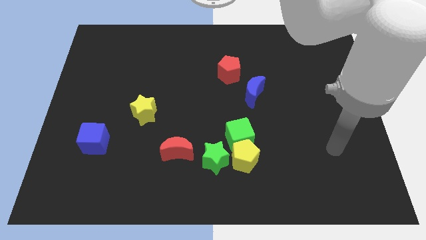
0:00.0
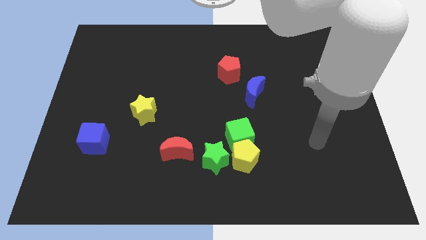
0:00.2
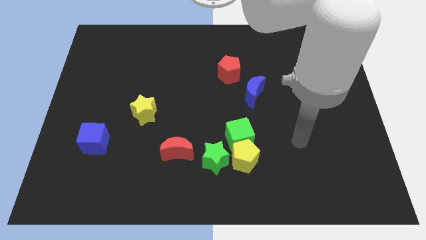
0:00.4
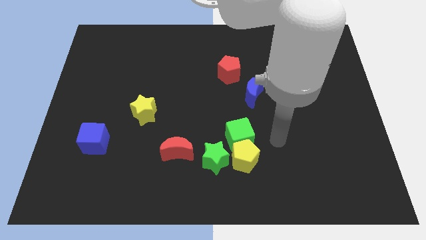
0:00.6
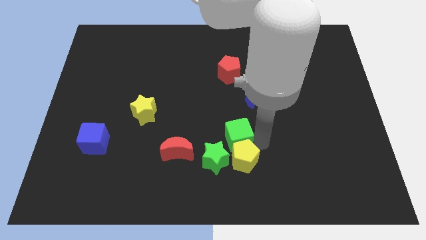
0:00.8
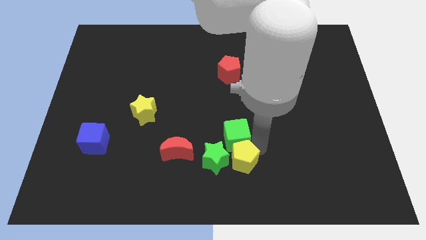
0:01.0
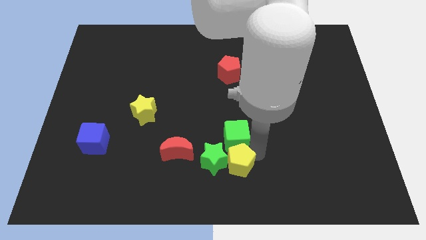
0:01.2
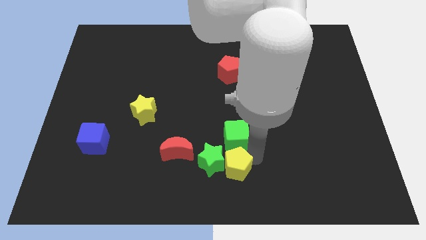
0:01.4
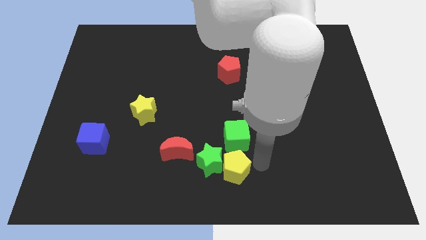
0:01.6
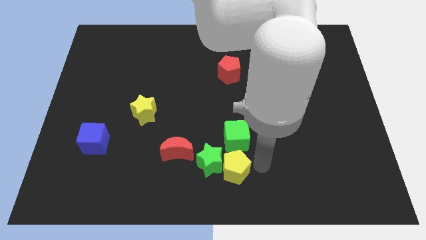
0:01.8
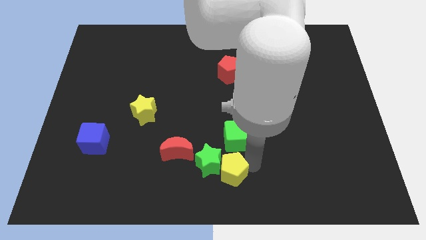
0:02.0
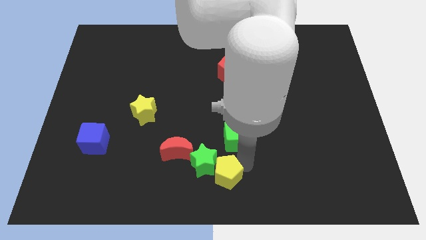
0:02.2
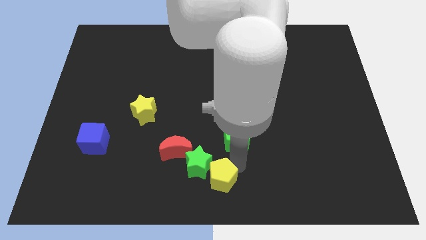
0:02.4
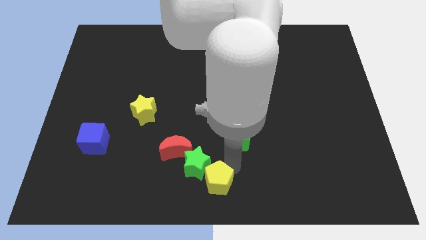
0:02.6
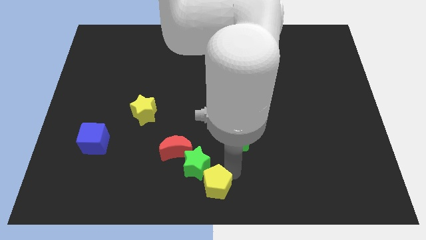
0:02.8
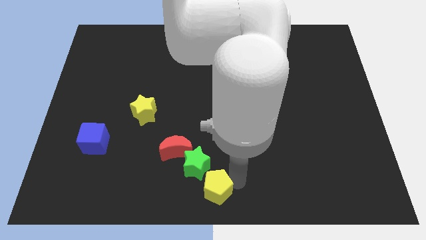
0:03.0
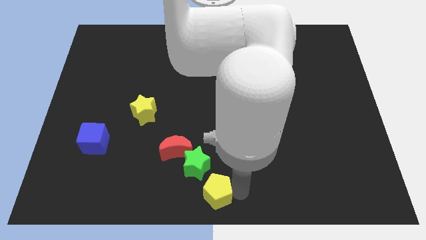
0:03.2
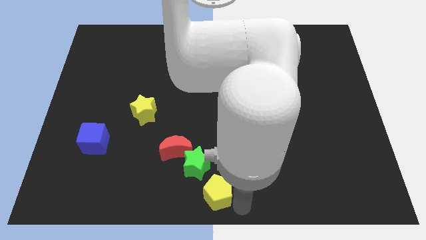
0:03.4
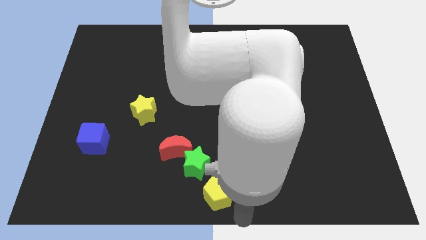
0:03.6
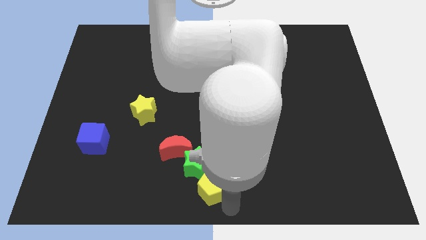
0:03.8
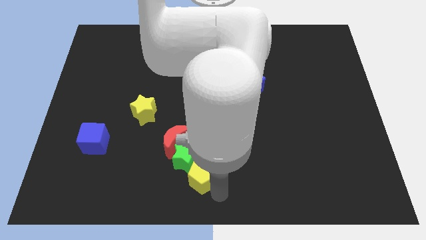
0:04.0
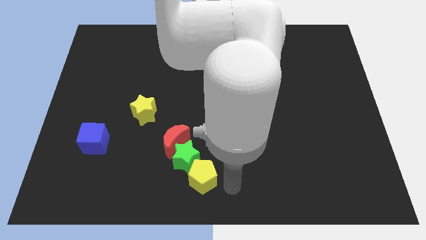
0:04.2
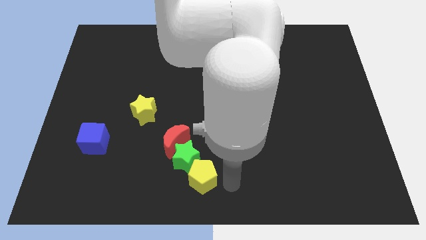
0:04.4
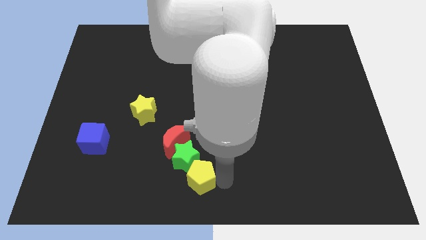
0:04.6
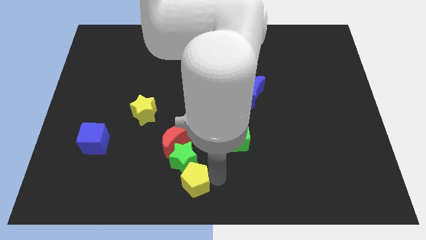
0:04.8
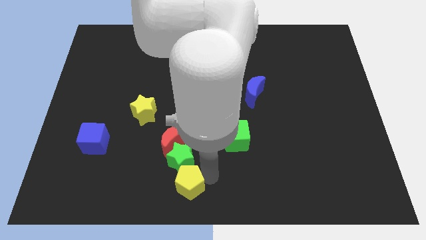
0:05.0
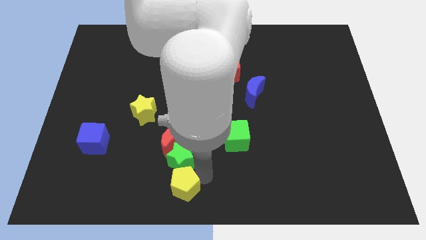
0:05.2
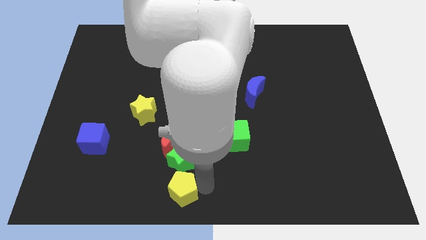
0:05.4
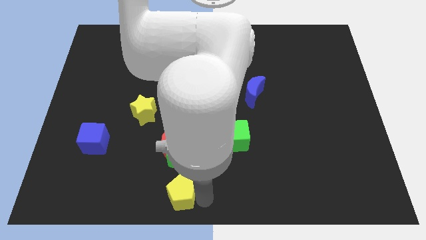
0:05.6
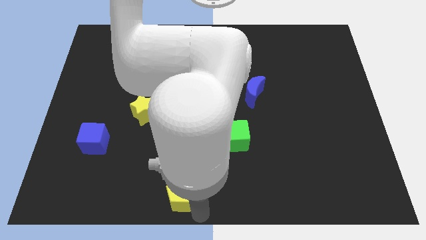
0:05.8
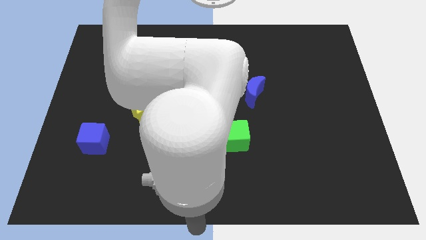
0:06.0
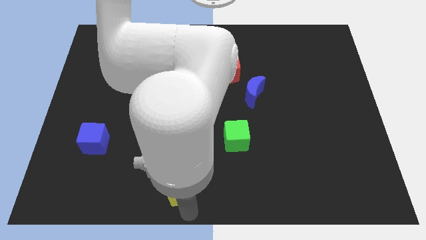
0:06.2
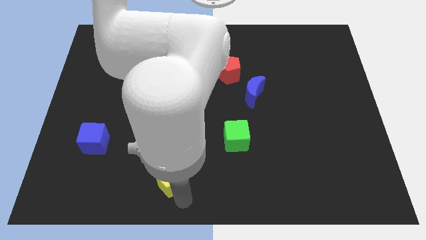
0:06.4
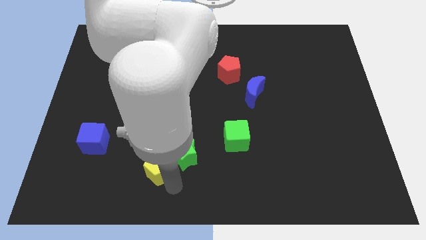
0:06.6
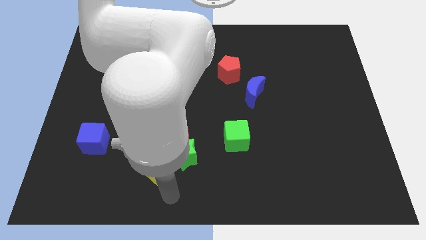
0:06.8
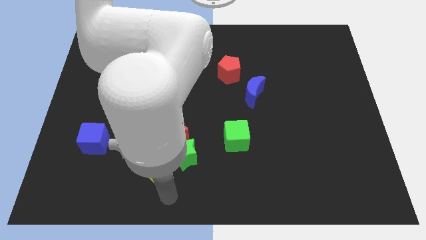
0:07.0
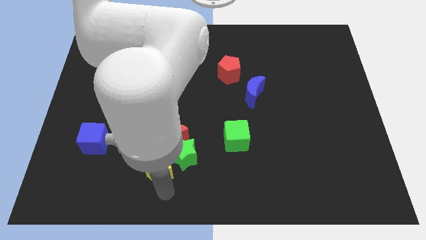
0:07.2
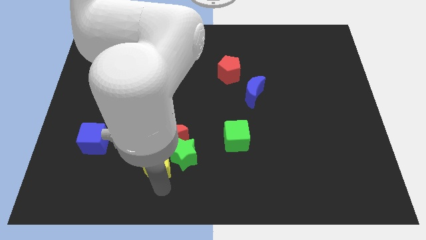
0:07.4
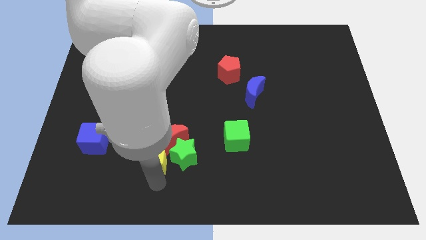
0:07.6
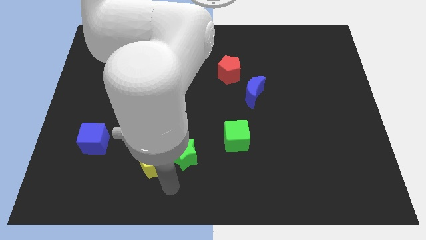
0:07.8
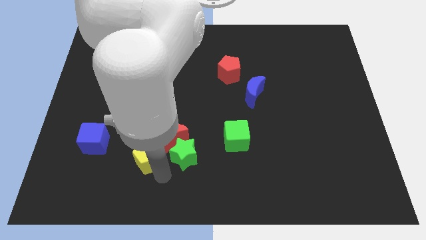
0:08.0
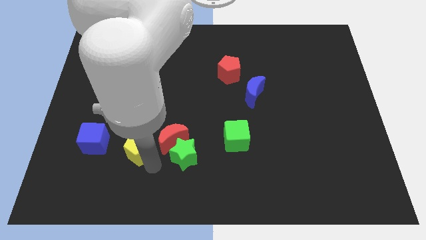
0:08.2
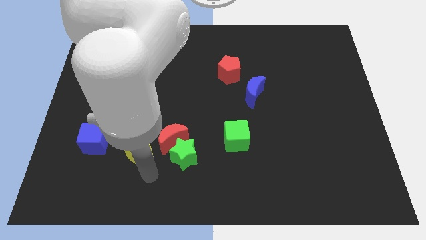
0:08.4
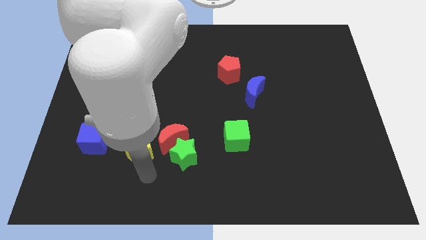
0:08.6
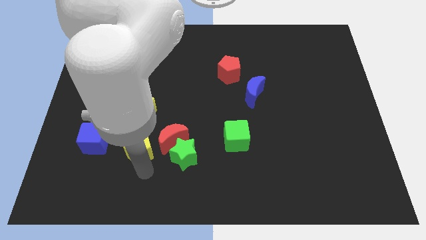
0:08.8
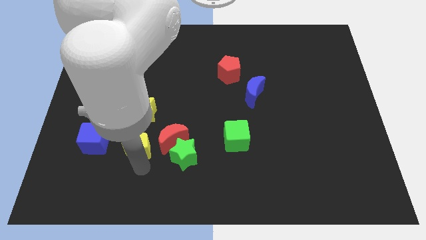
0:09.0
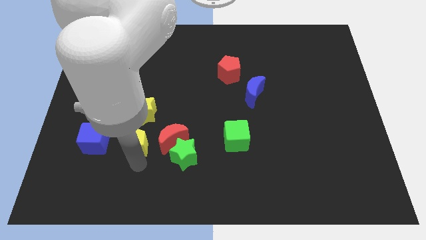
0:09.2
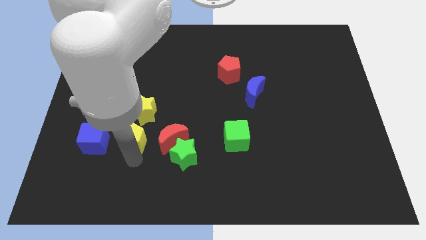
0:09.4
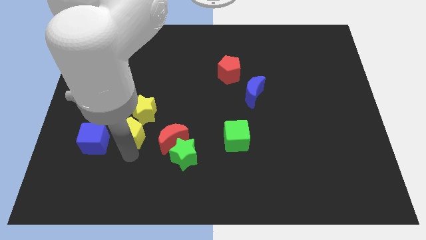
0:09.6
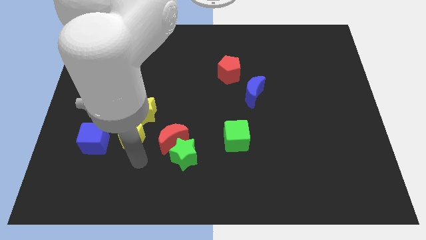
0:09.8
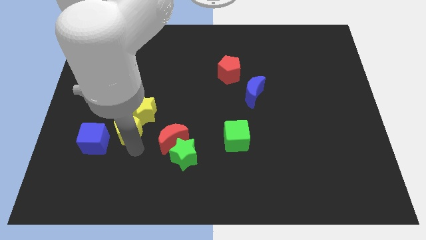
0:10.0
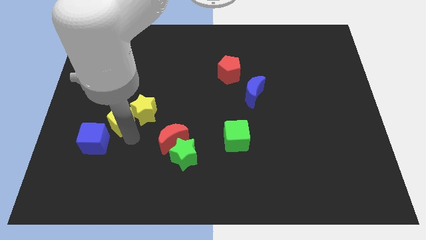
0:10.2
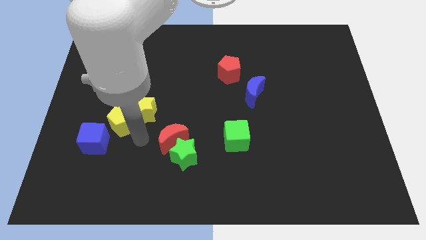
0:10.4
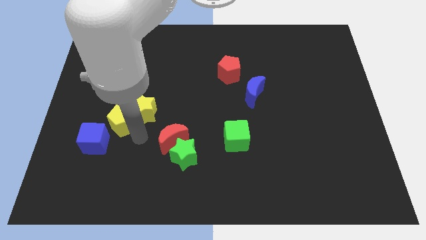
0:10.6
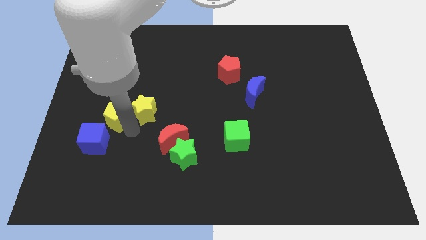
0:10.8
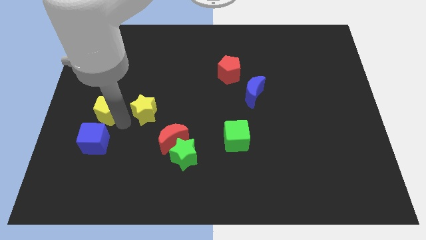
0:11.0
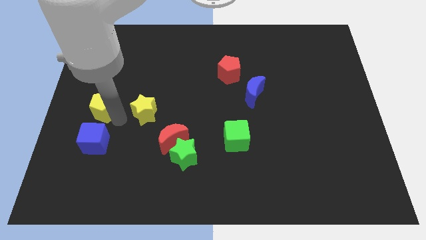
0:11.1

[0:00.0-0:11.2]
slide the yellow pentagon to the center left
